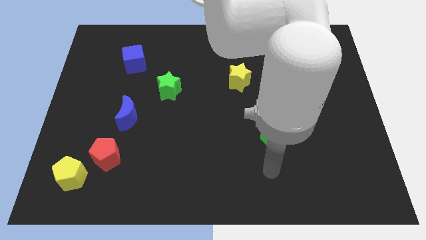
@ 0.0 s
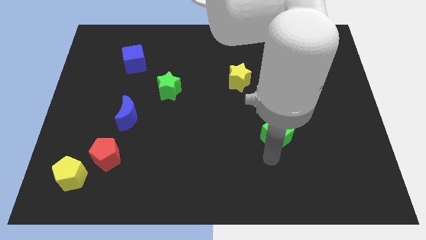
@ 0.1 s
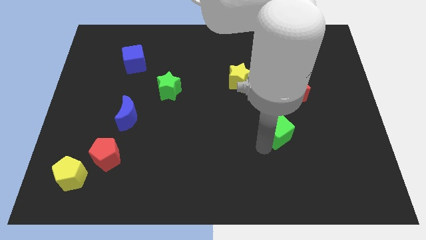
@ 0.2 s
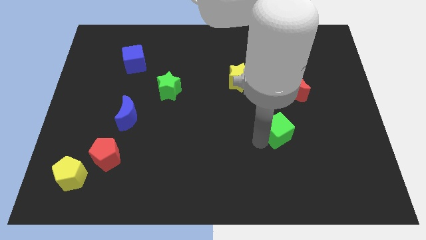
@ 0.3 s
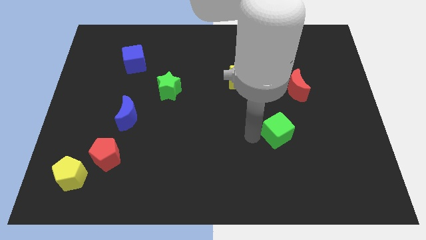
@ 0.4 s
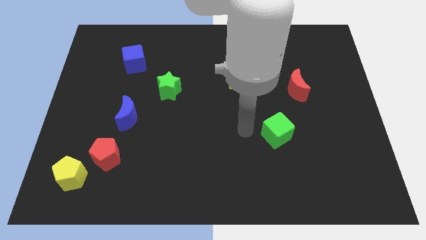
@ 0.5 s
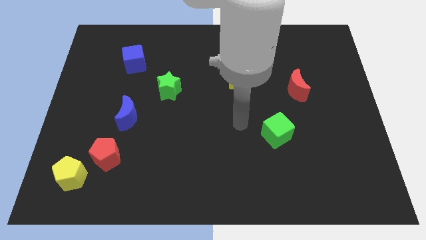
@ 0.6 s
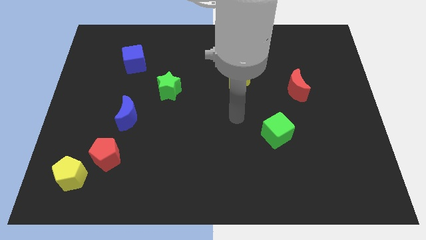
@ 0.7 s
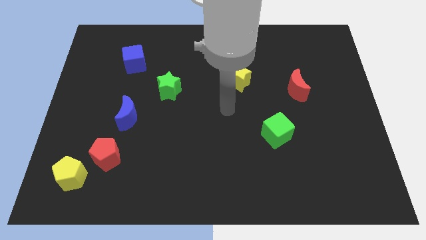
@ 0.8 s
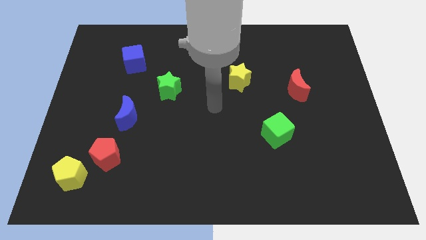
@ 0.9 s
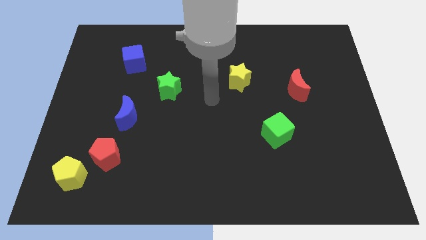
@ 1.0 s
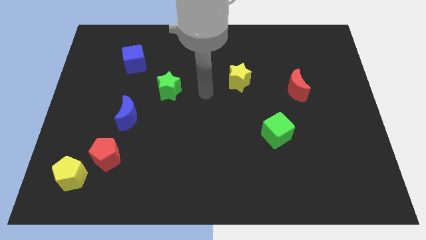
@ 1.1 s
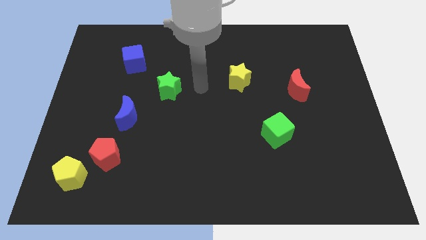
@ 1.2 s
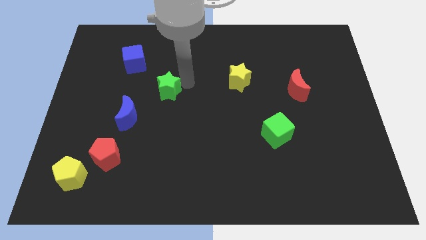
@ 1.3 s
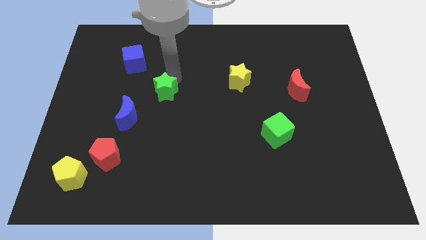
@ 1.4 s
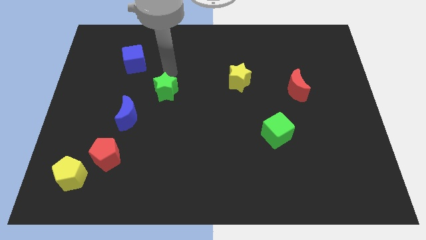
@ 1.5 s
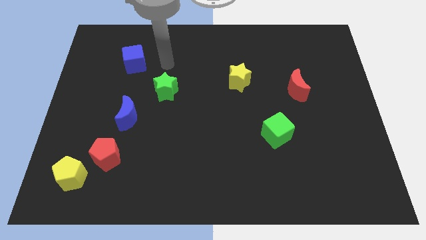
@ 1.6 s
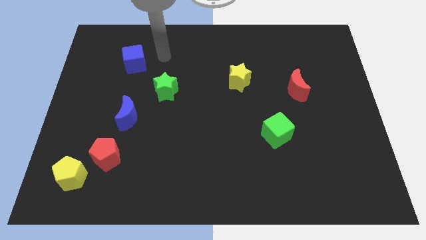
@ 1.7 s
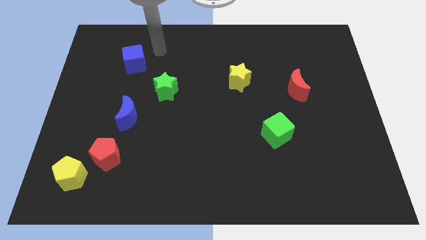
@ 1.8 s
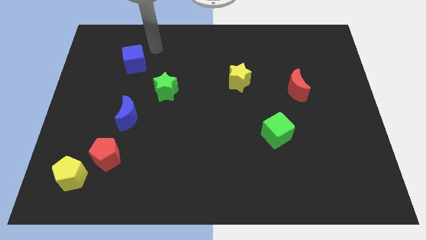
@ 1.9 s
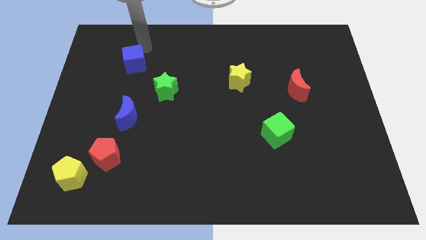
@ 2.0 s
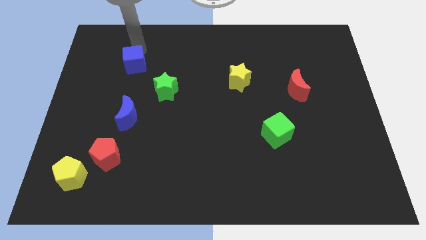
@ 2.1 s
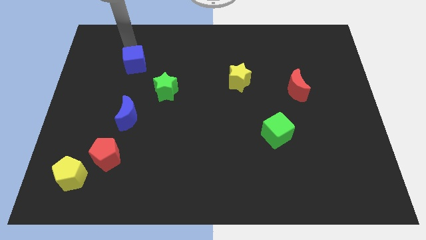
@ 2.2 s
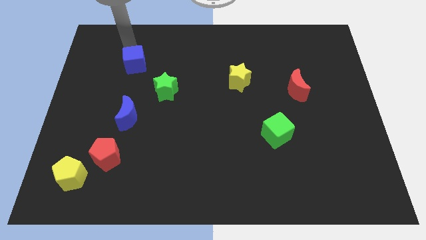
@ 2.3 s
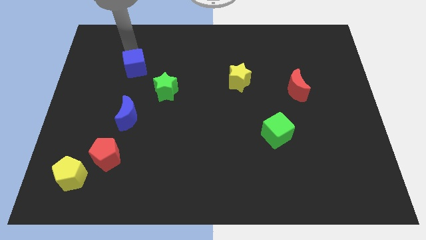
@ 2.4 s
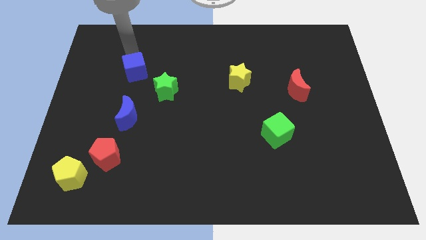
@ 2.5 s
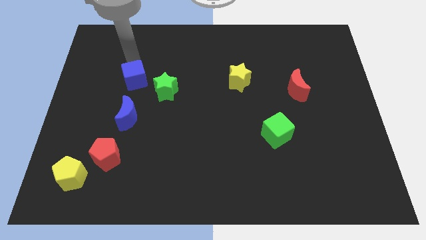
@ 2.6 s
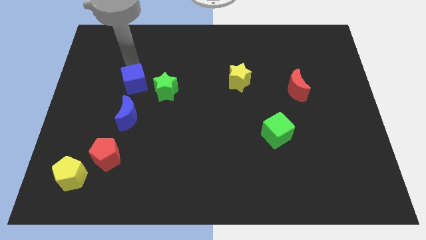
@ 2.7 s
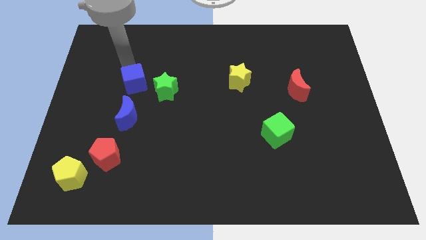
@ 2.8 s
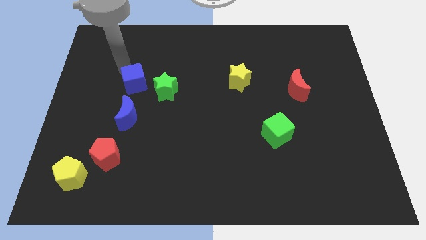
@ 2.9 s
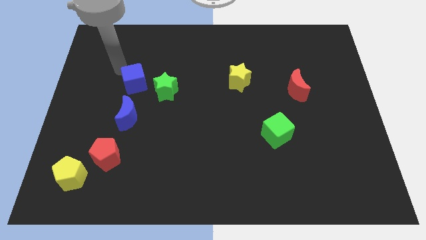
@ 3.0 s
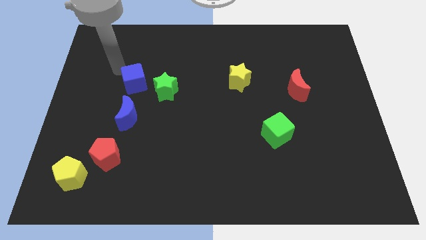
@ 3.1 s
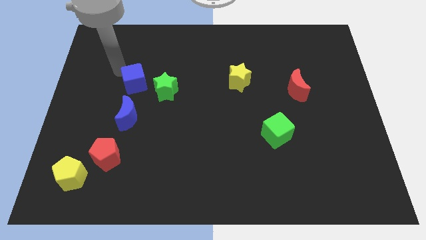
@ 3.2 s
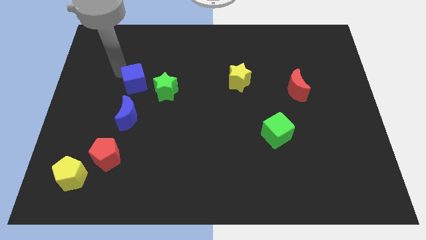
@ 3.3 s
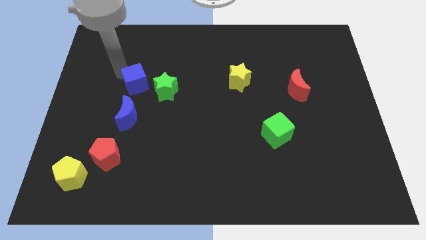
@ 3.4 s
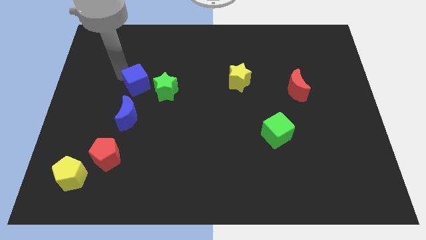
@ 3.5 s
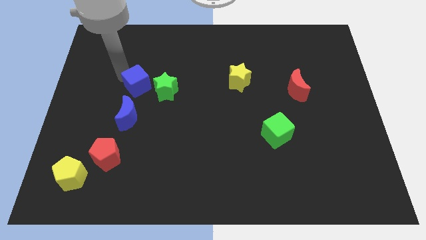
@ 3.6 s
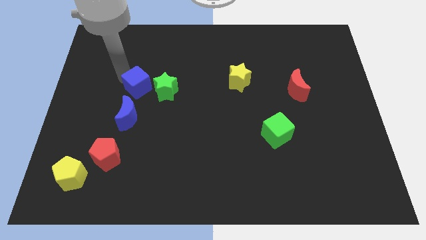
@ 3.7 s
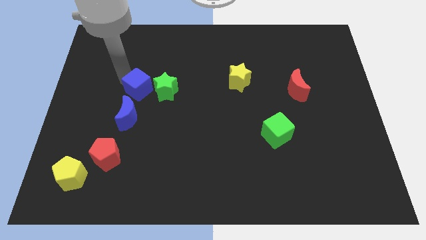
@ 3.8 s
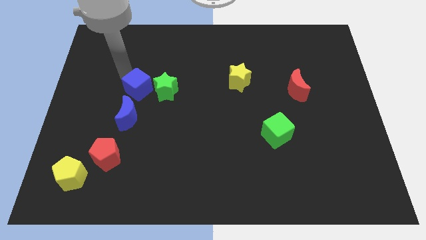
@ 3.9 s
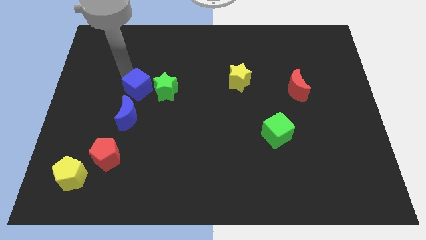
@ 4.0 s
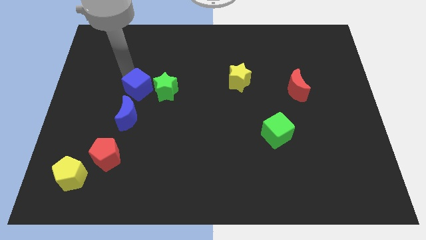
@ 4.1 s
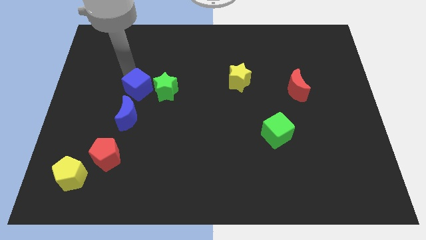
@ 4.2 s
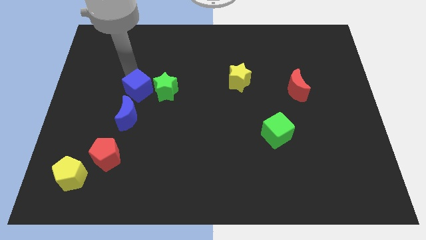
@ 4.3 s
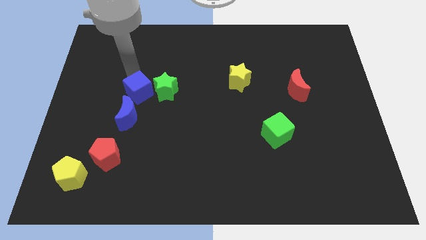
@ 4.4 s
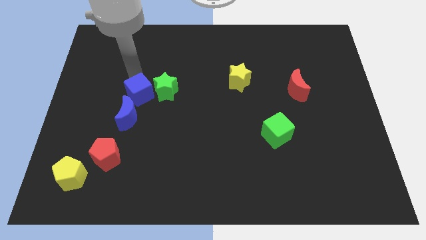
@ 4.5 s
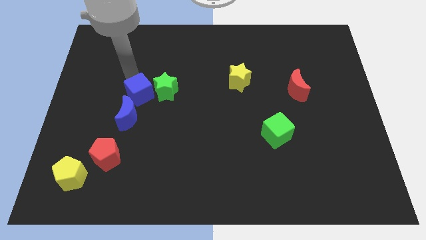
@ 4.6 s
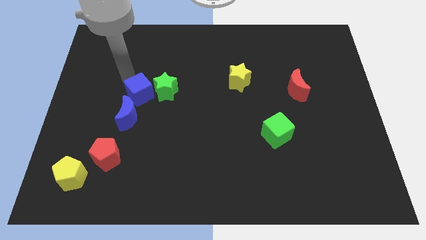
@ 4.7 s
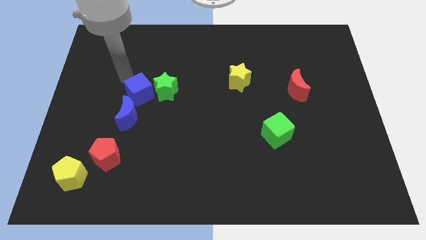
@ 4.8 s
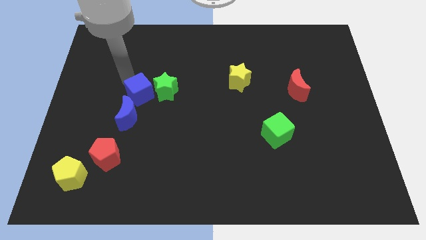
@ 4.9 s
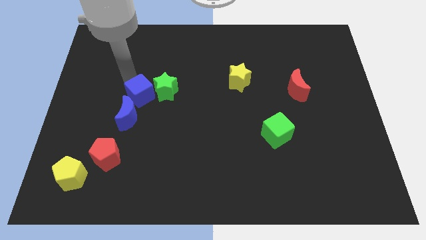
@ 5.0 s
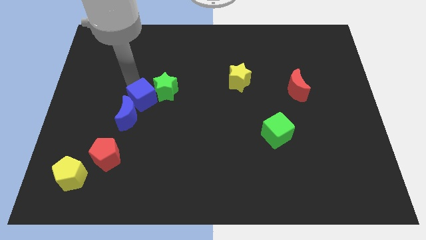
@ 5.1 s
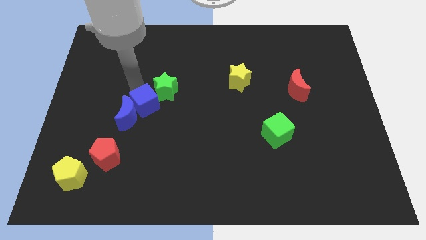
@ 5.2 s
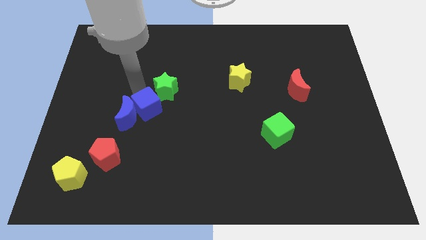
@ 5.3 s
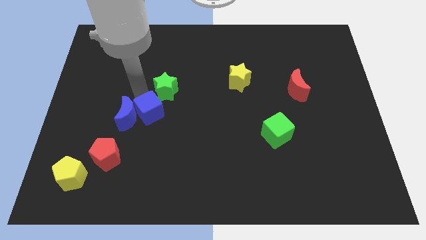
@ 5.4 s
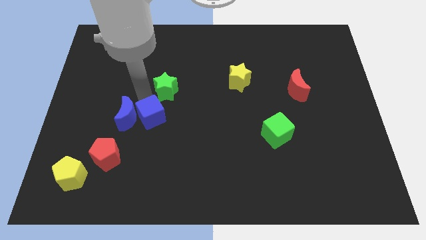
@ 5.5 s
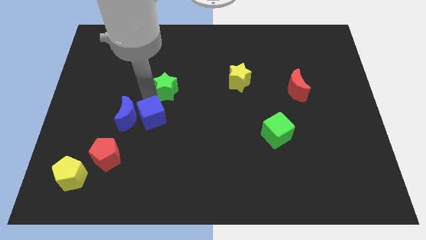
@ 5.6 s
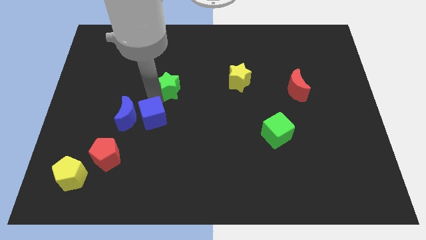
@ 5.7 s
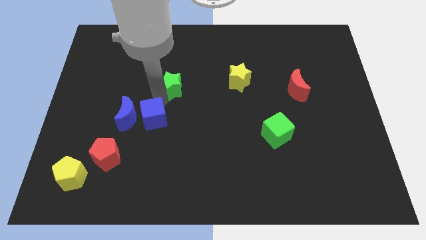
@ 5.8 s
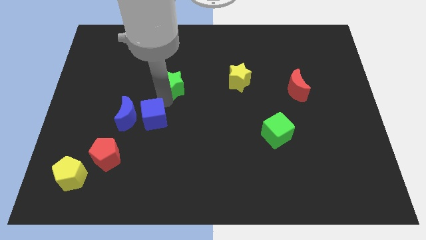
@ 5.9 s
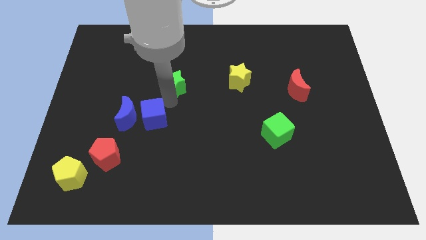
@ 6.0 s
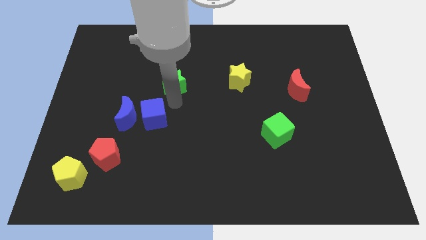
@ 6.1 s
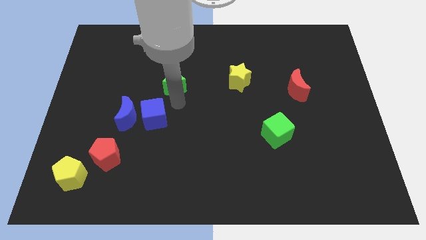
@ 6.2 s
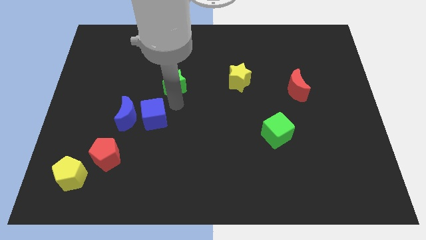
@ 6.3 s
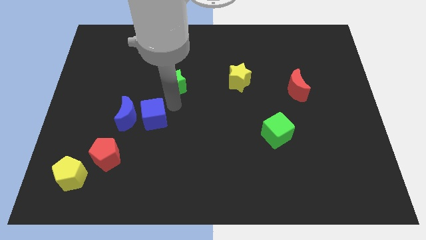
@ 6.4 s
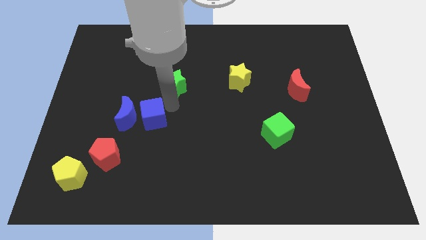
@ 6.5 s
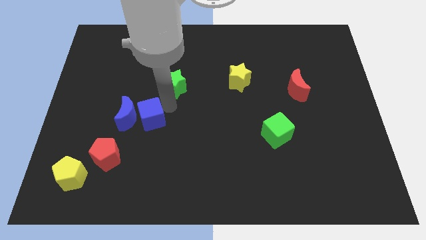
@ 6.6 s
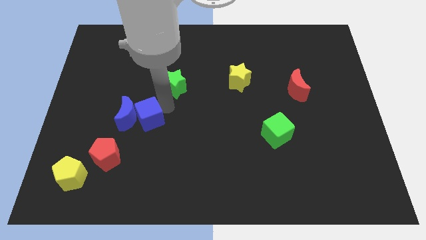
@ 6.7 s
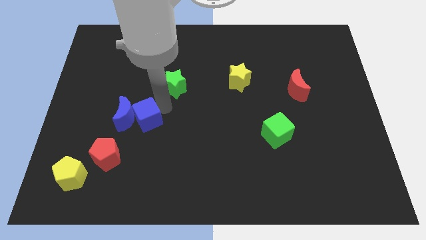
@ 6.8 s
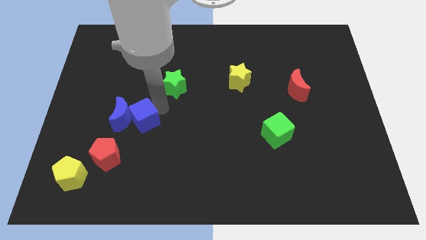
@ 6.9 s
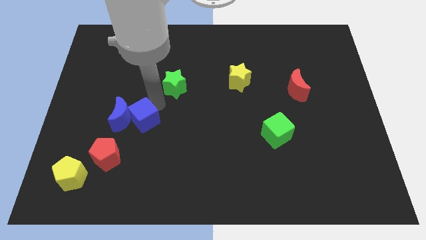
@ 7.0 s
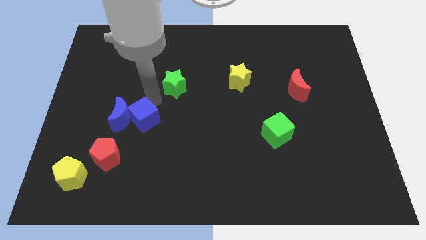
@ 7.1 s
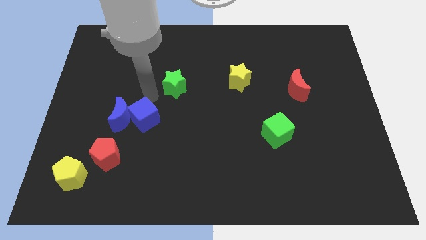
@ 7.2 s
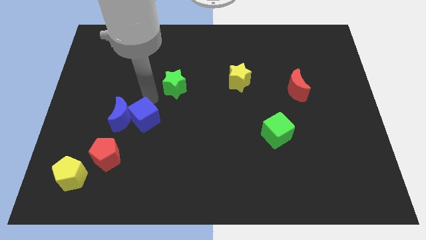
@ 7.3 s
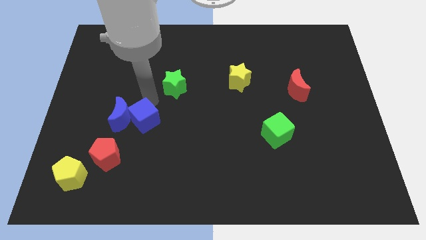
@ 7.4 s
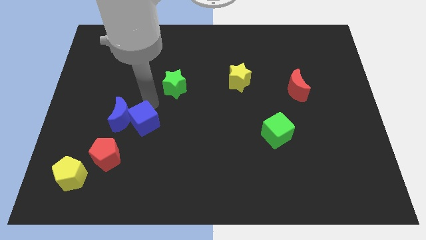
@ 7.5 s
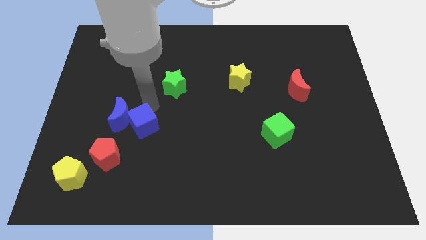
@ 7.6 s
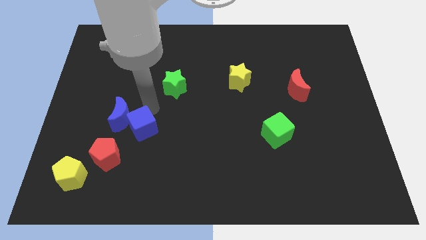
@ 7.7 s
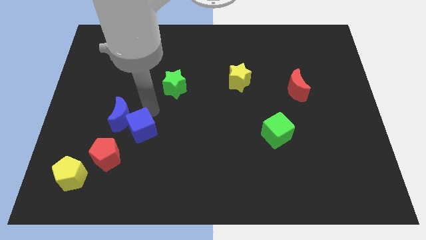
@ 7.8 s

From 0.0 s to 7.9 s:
slide the blue cube down
